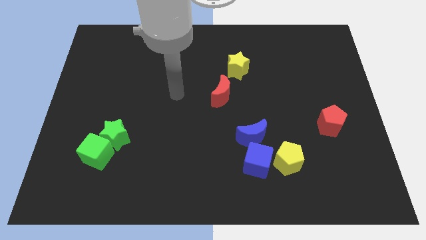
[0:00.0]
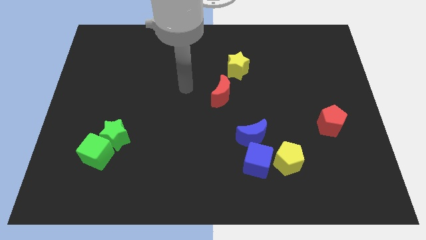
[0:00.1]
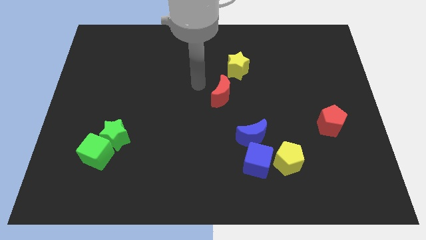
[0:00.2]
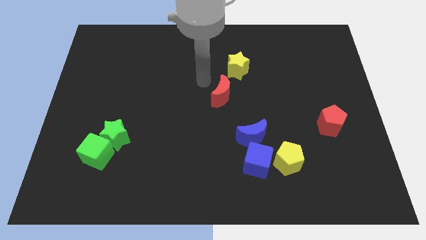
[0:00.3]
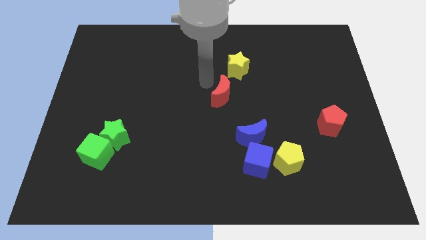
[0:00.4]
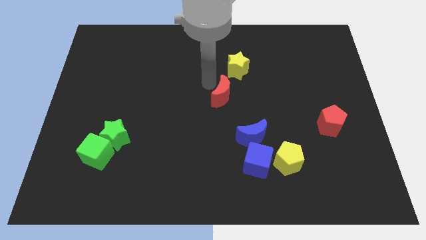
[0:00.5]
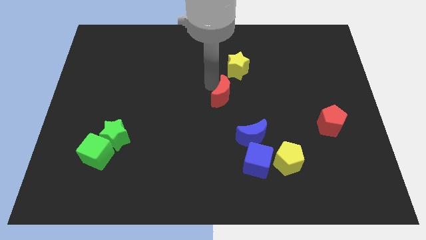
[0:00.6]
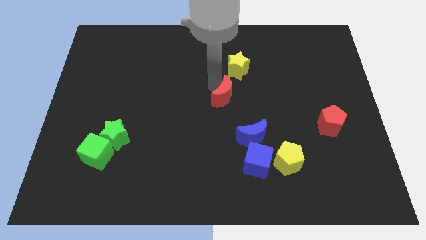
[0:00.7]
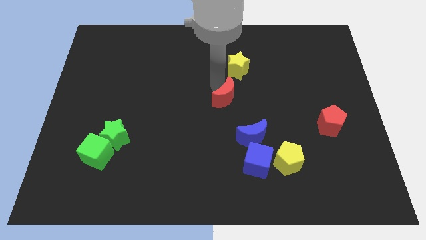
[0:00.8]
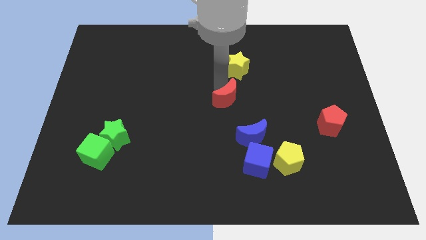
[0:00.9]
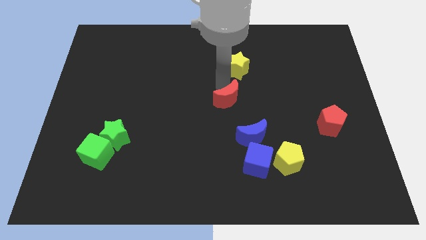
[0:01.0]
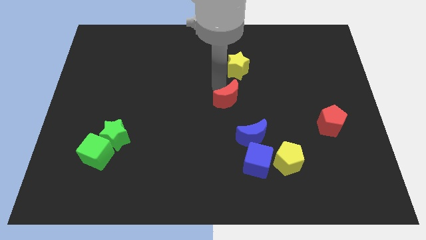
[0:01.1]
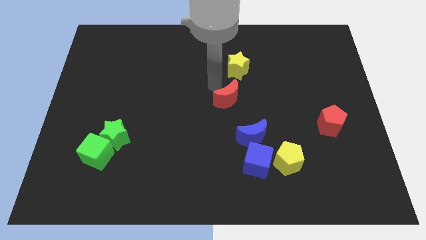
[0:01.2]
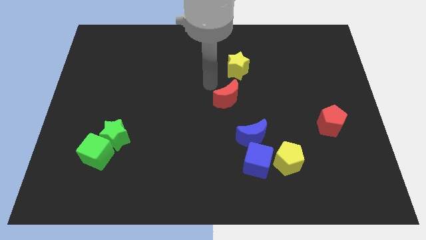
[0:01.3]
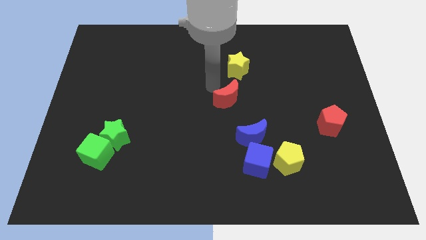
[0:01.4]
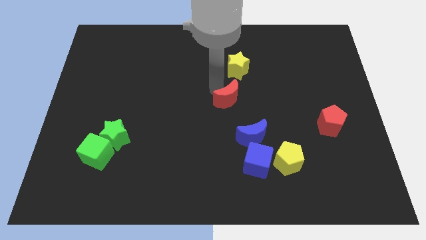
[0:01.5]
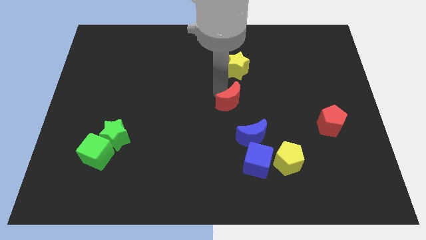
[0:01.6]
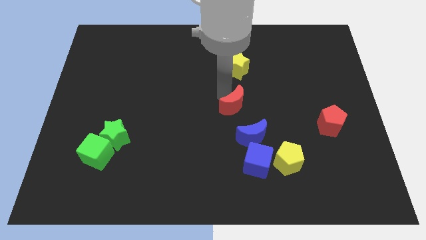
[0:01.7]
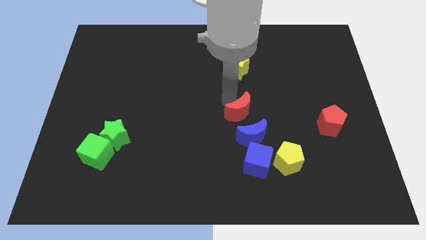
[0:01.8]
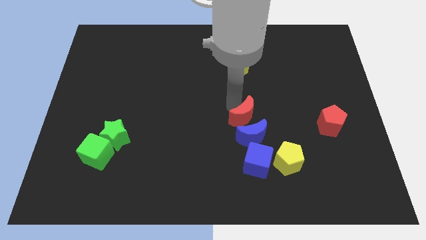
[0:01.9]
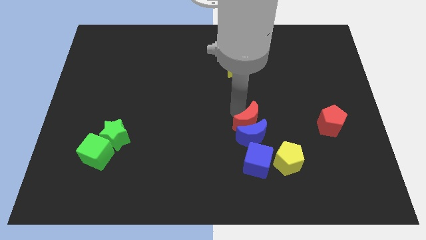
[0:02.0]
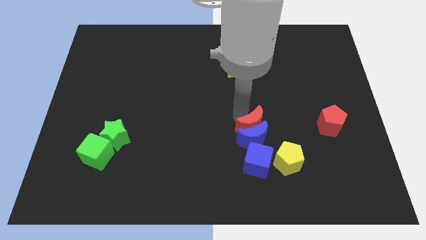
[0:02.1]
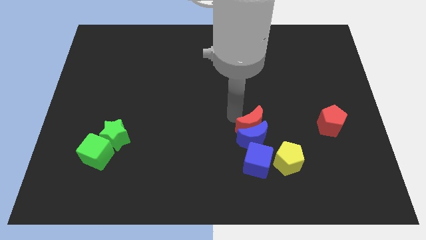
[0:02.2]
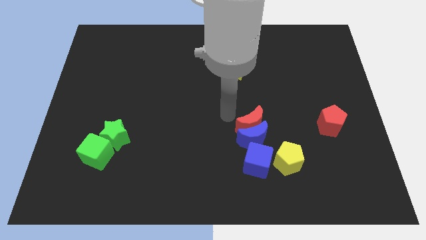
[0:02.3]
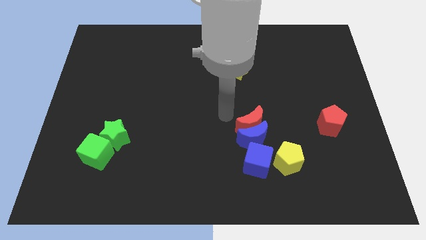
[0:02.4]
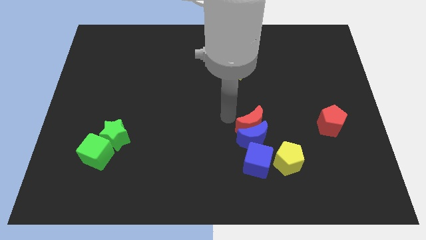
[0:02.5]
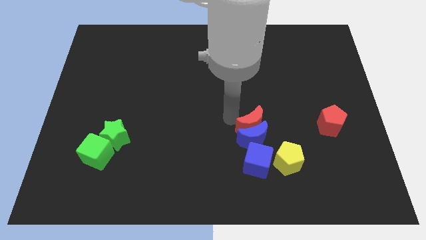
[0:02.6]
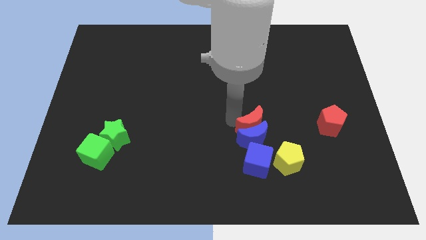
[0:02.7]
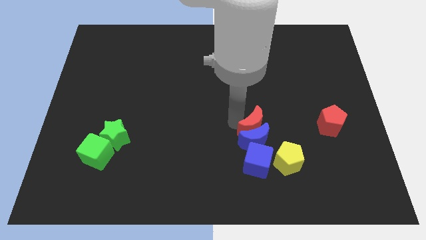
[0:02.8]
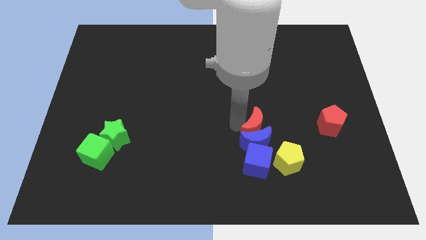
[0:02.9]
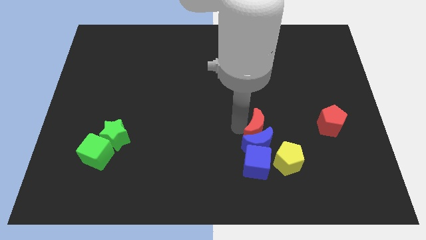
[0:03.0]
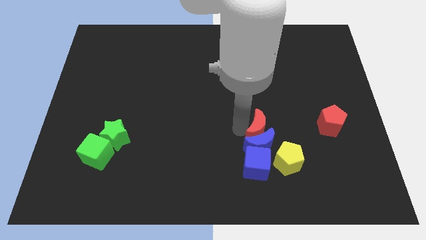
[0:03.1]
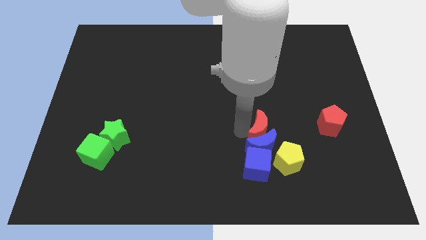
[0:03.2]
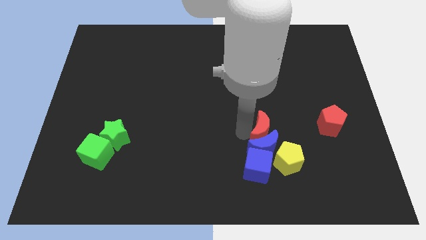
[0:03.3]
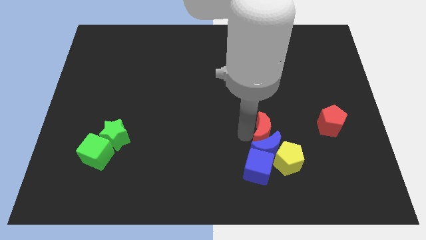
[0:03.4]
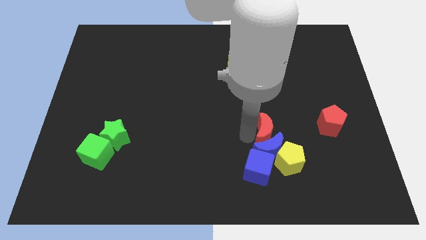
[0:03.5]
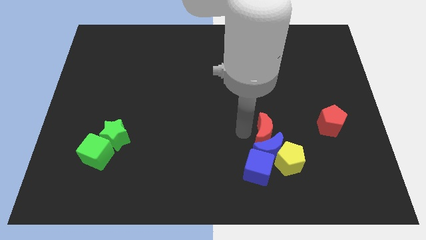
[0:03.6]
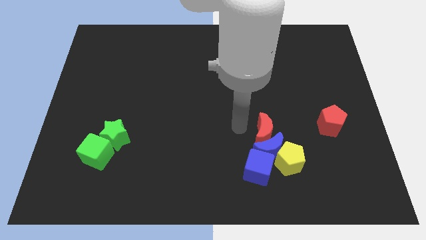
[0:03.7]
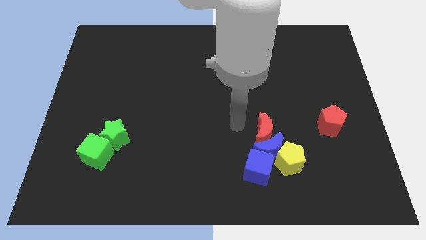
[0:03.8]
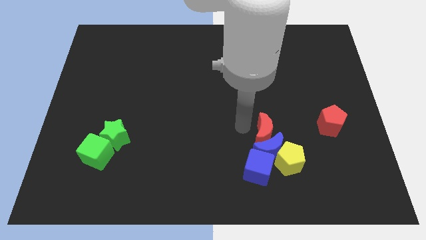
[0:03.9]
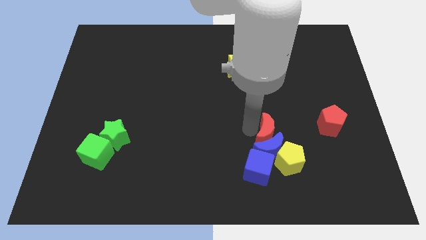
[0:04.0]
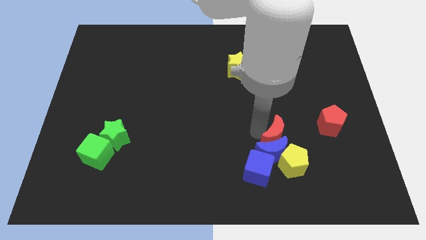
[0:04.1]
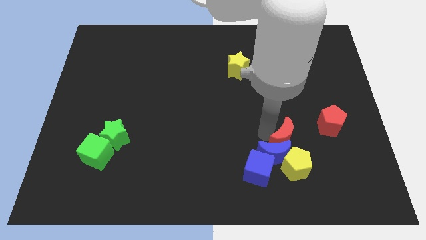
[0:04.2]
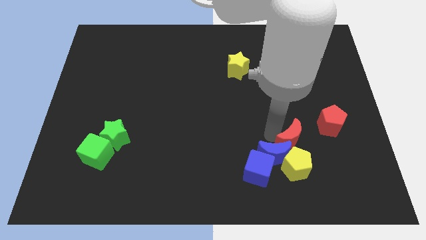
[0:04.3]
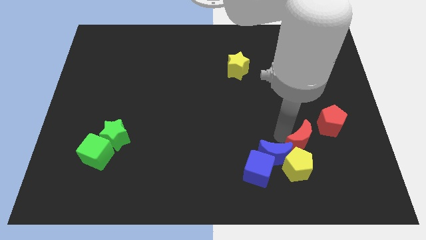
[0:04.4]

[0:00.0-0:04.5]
slide the red moon downwards and right diagonally

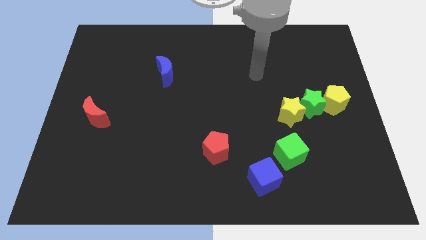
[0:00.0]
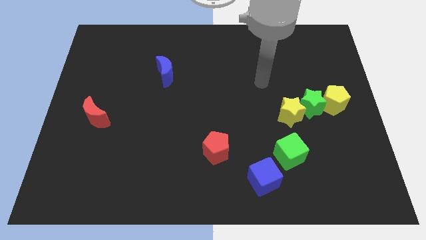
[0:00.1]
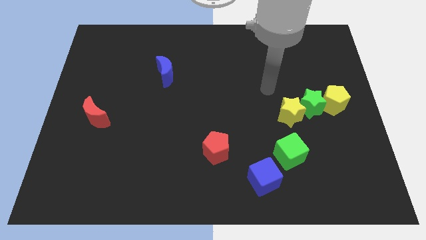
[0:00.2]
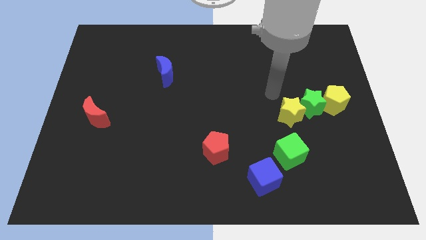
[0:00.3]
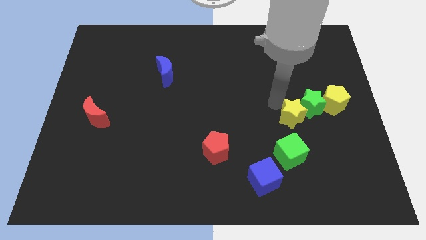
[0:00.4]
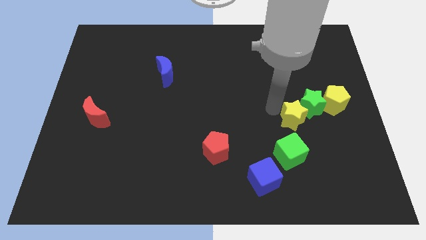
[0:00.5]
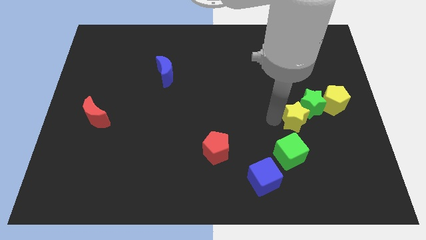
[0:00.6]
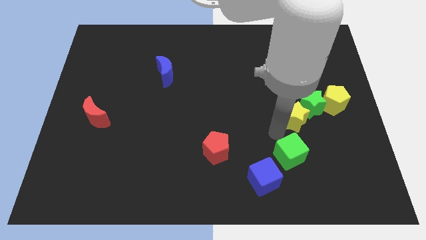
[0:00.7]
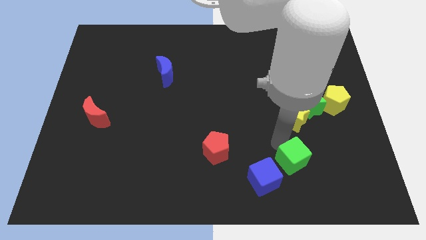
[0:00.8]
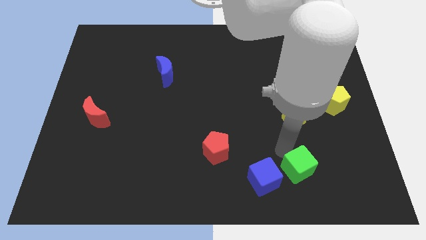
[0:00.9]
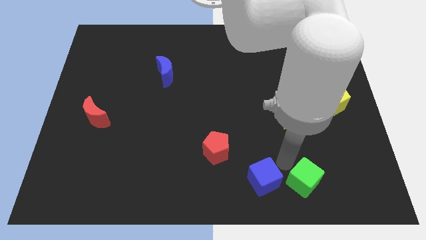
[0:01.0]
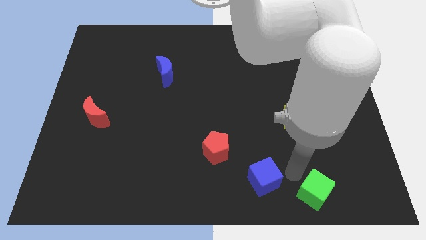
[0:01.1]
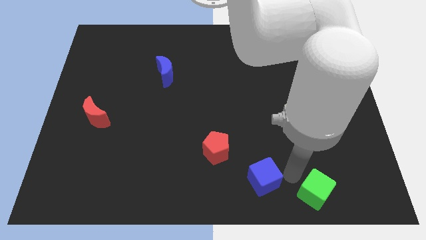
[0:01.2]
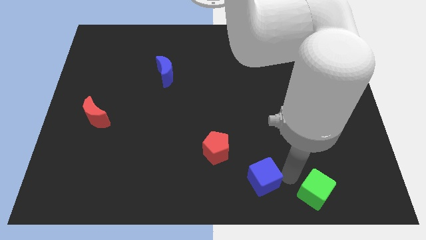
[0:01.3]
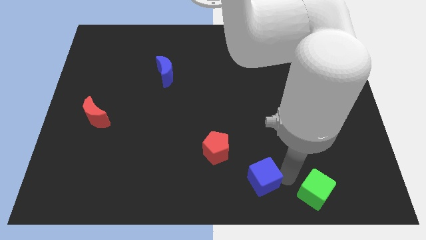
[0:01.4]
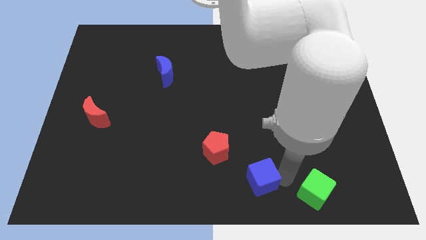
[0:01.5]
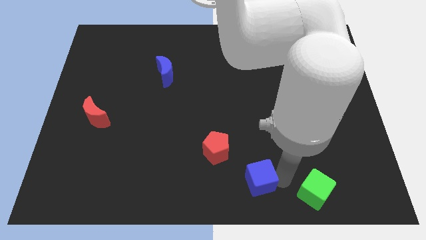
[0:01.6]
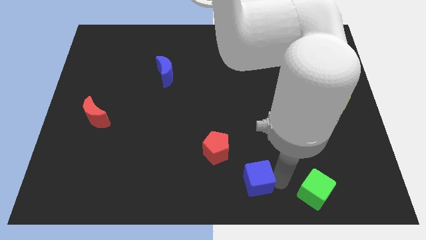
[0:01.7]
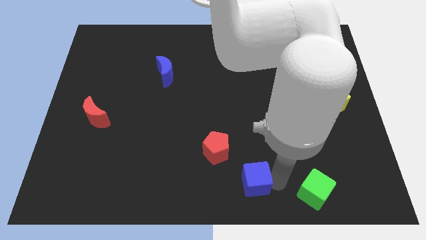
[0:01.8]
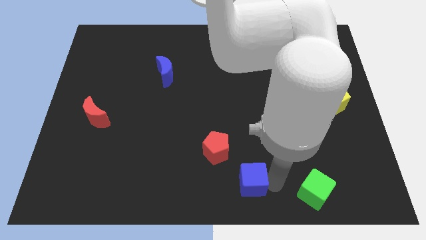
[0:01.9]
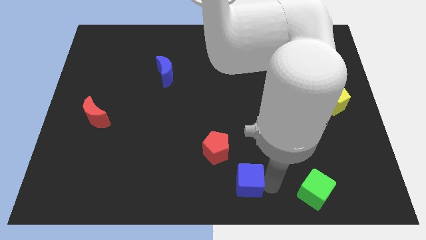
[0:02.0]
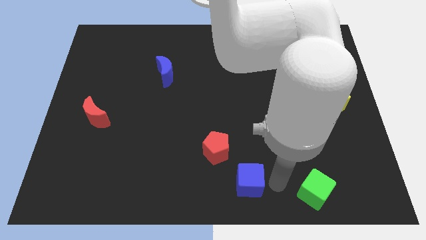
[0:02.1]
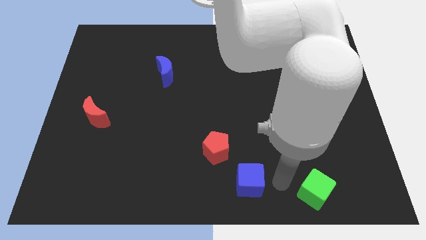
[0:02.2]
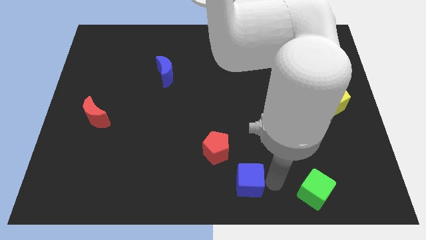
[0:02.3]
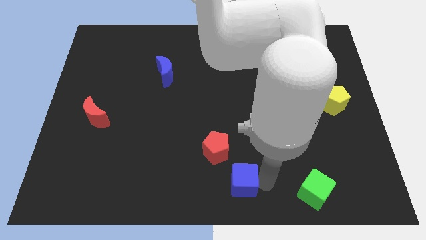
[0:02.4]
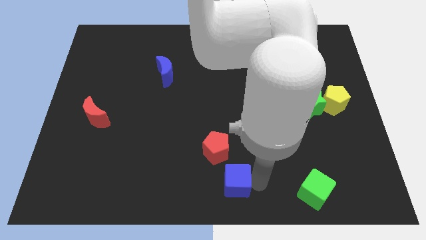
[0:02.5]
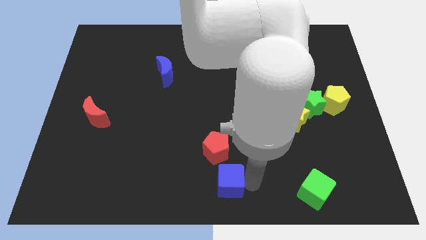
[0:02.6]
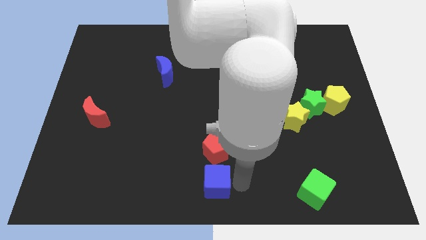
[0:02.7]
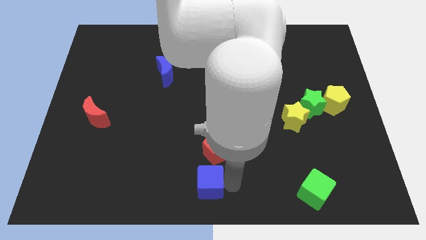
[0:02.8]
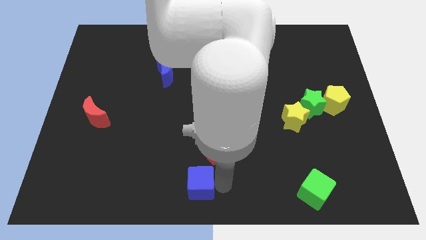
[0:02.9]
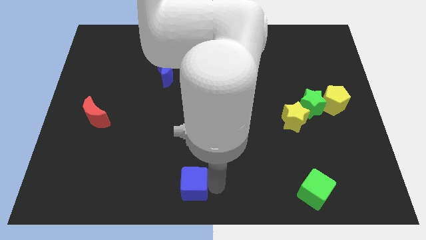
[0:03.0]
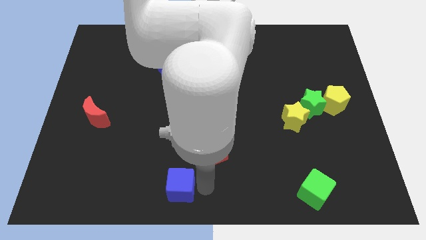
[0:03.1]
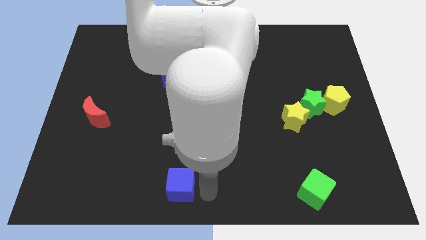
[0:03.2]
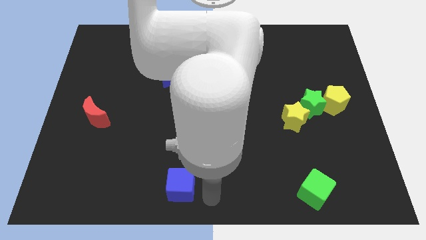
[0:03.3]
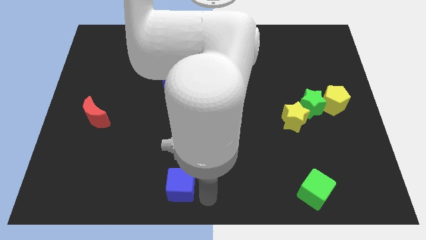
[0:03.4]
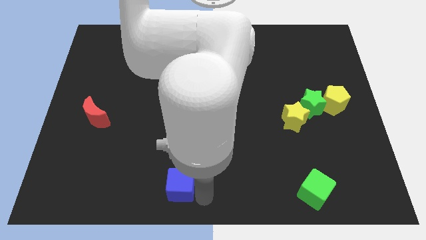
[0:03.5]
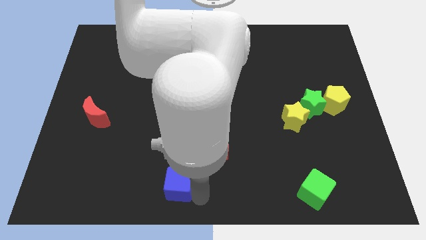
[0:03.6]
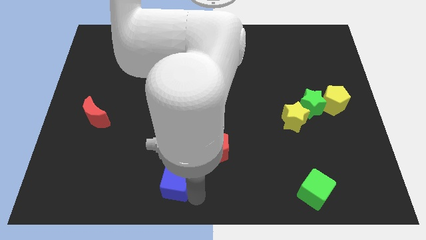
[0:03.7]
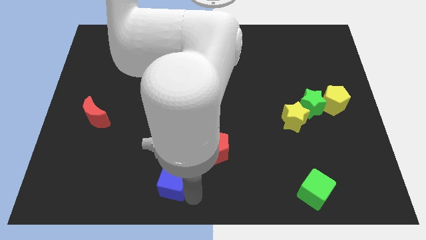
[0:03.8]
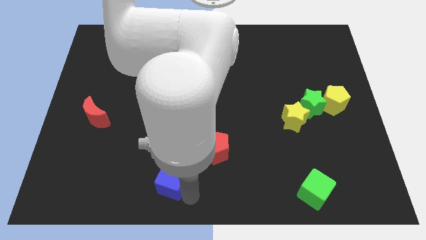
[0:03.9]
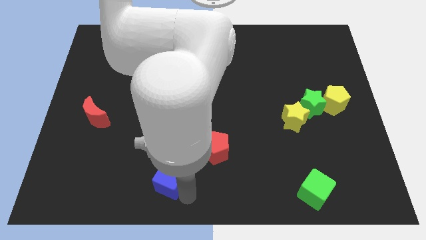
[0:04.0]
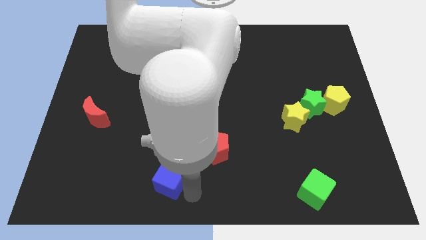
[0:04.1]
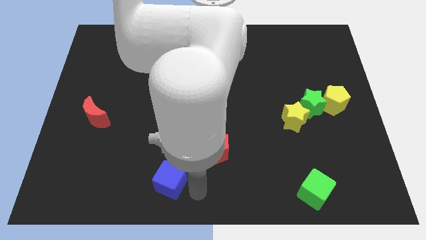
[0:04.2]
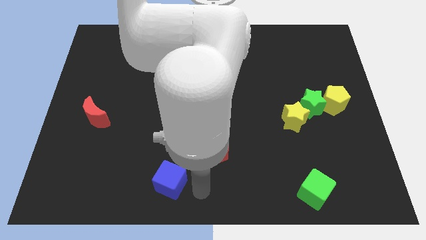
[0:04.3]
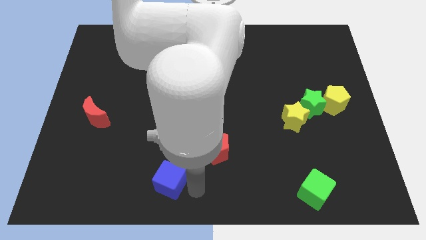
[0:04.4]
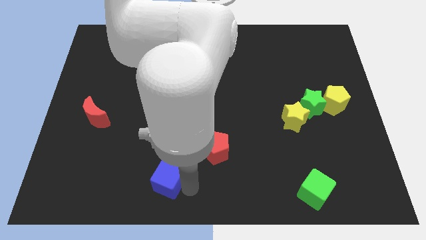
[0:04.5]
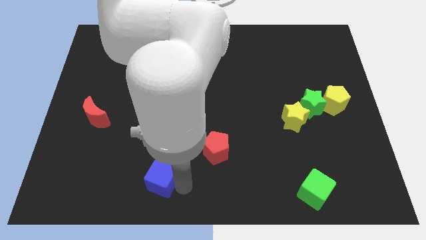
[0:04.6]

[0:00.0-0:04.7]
push the blue cube to the left
